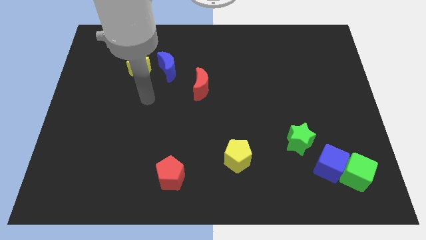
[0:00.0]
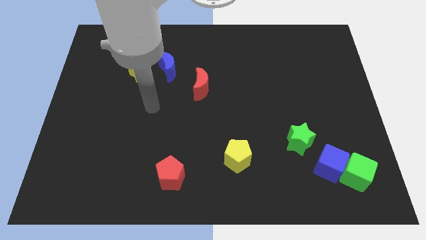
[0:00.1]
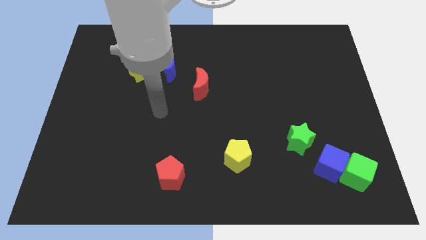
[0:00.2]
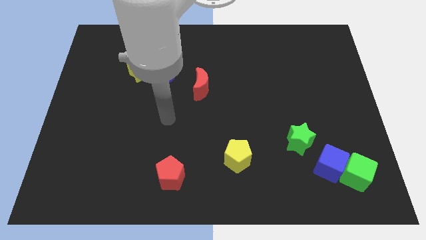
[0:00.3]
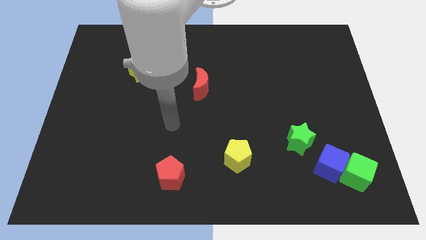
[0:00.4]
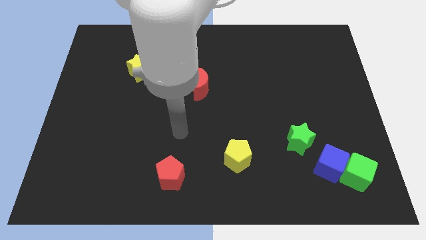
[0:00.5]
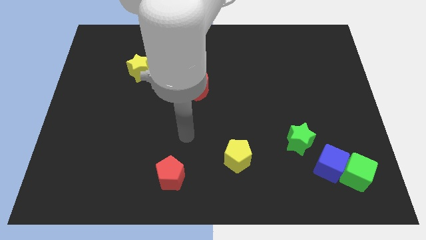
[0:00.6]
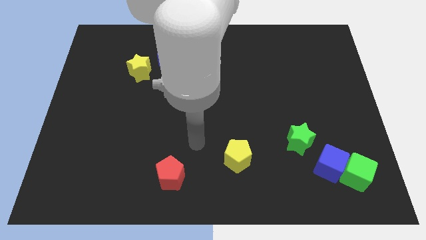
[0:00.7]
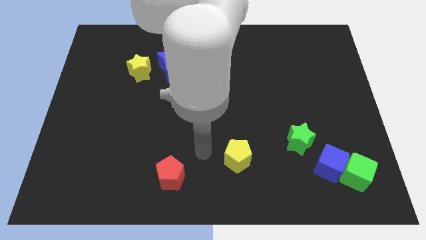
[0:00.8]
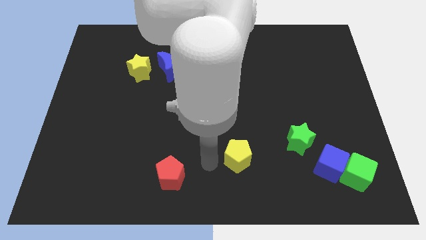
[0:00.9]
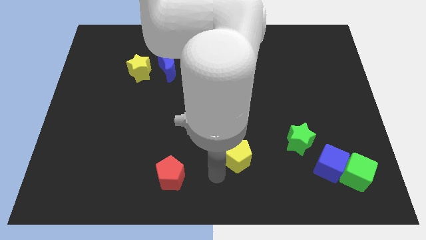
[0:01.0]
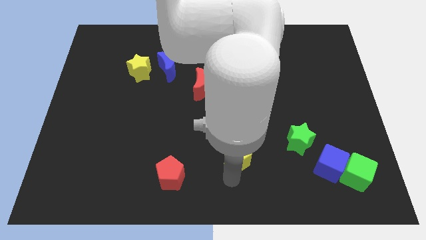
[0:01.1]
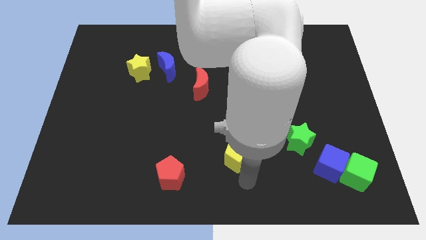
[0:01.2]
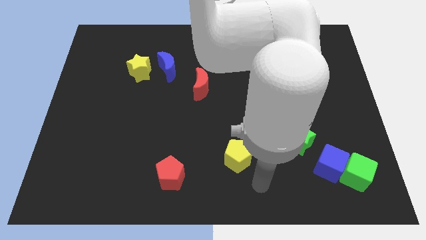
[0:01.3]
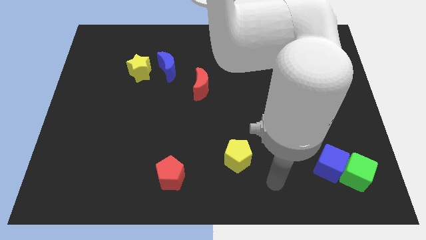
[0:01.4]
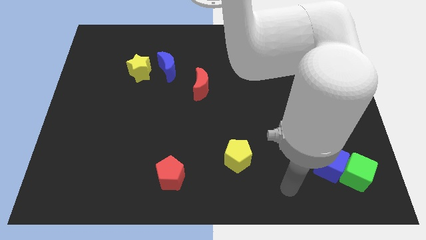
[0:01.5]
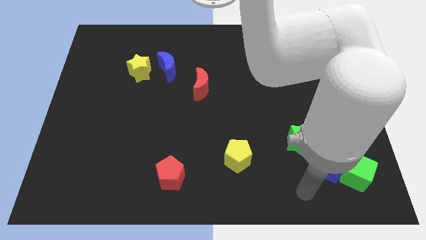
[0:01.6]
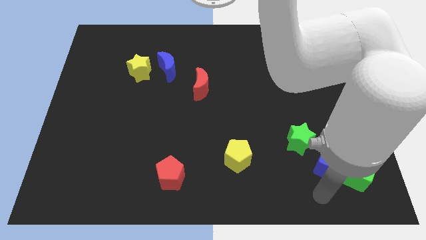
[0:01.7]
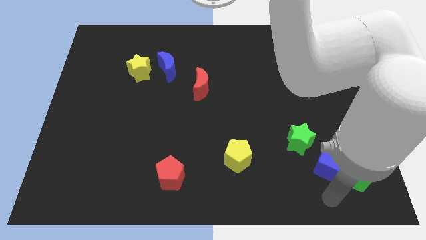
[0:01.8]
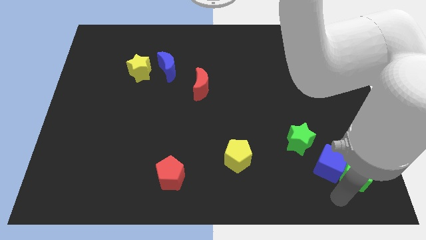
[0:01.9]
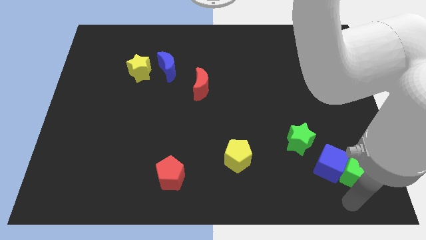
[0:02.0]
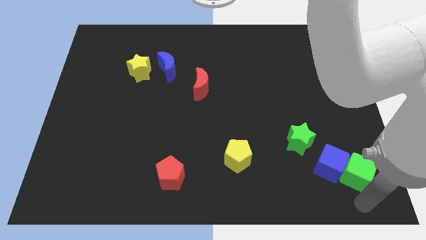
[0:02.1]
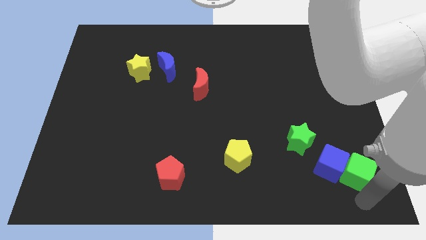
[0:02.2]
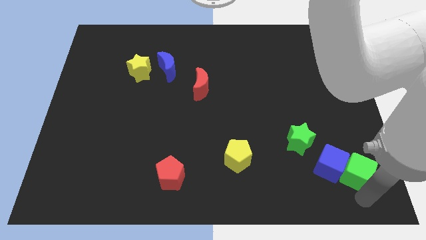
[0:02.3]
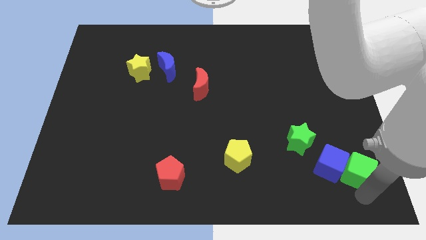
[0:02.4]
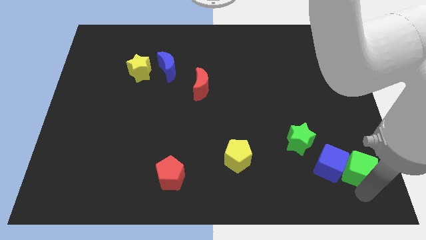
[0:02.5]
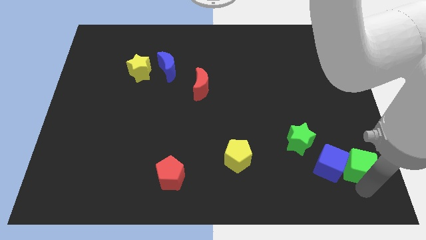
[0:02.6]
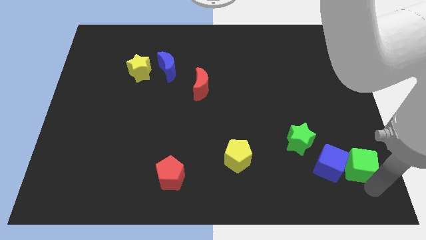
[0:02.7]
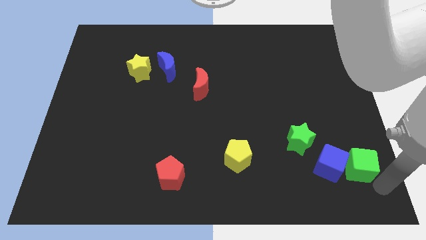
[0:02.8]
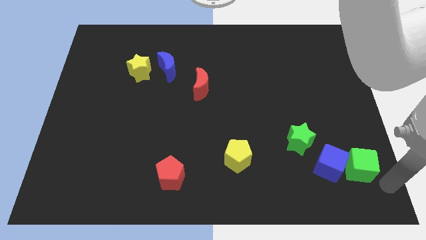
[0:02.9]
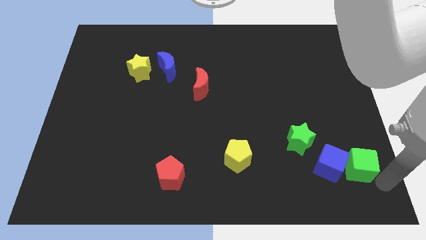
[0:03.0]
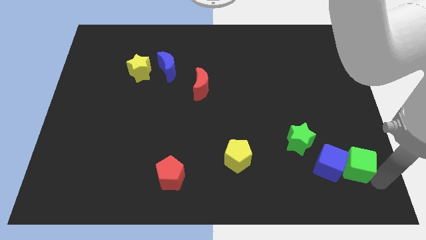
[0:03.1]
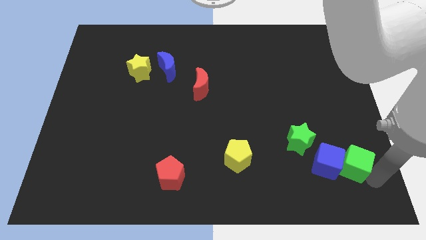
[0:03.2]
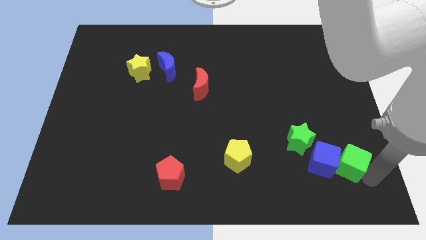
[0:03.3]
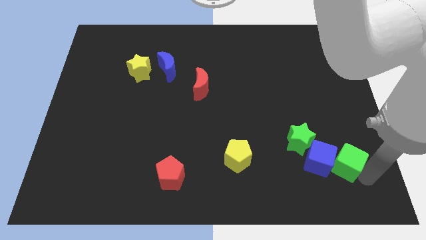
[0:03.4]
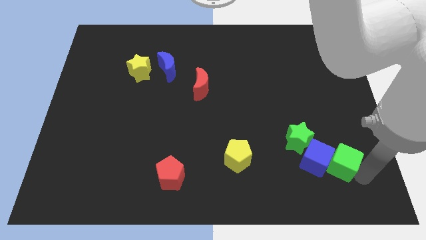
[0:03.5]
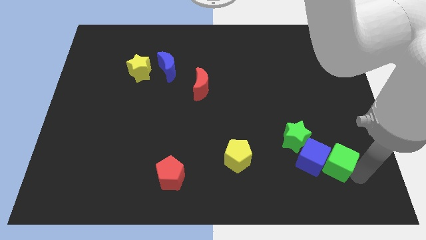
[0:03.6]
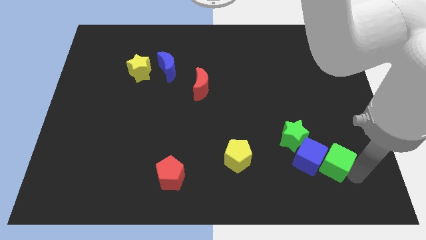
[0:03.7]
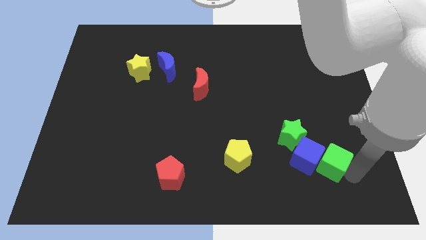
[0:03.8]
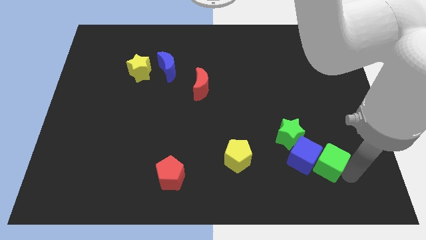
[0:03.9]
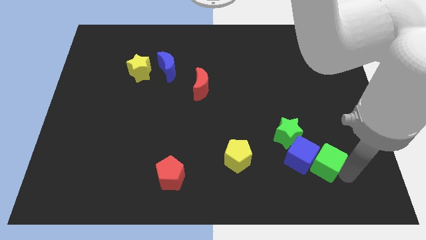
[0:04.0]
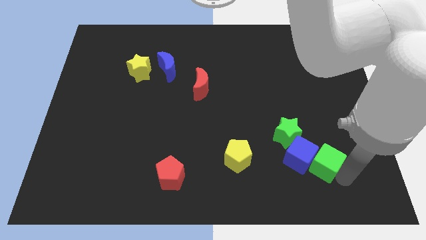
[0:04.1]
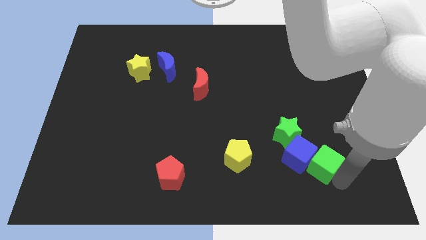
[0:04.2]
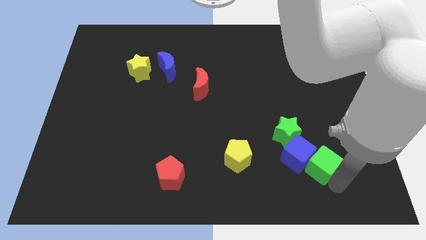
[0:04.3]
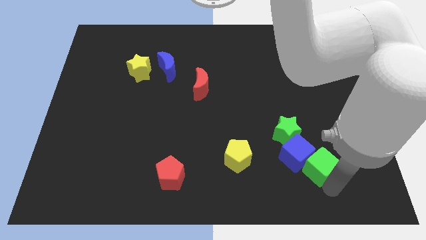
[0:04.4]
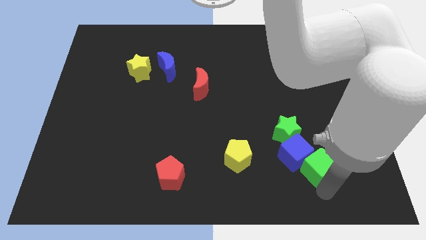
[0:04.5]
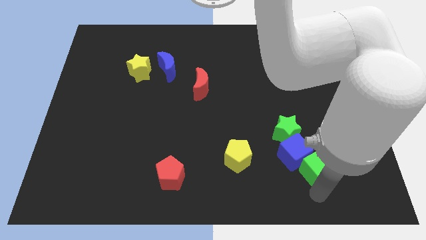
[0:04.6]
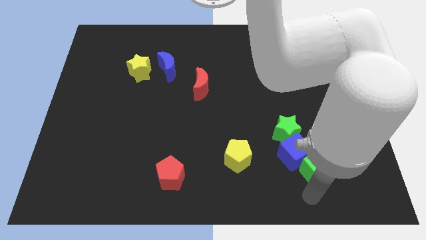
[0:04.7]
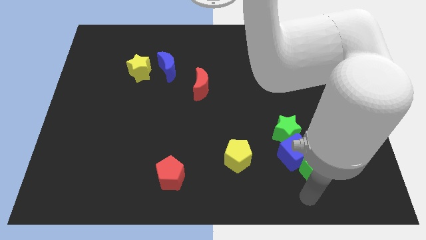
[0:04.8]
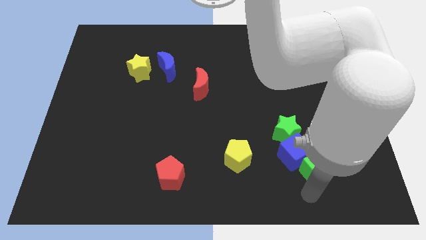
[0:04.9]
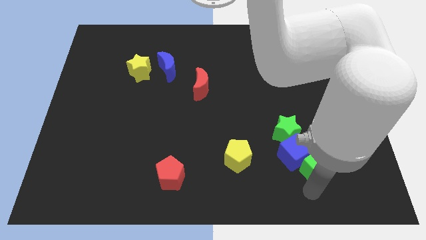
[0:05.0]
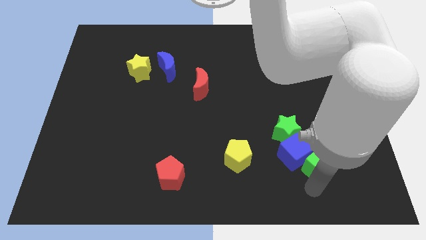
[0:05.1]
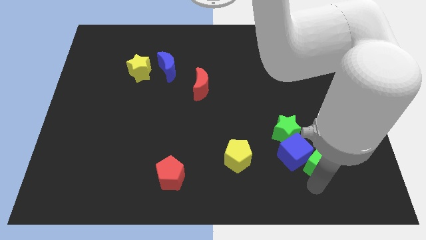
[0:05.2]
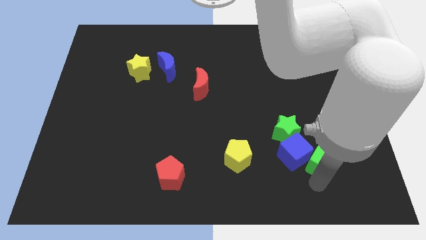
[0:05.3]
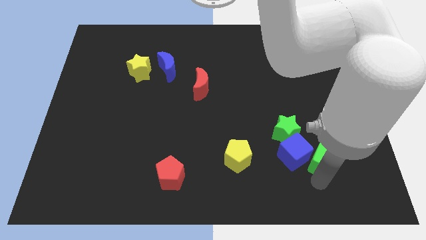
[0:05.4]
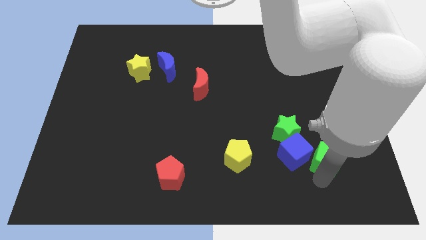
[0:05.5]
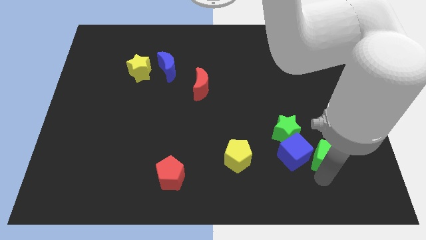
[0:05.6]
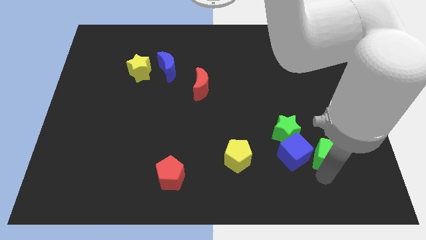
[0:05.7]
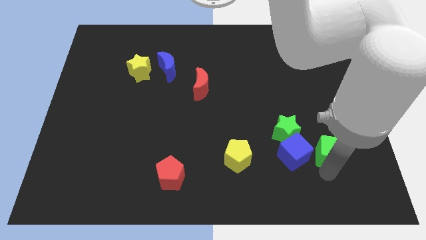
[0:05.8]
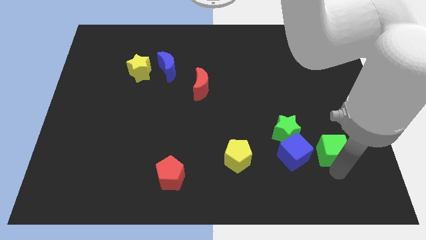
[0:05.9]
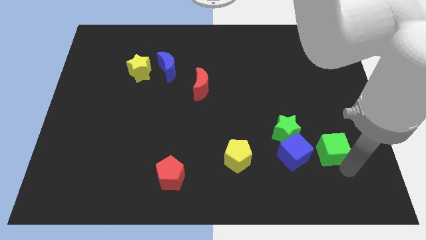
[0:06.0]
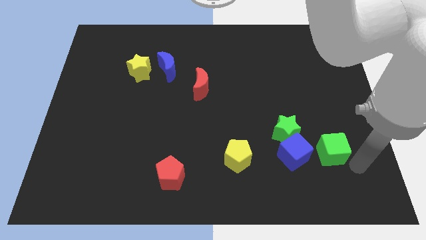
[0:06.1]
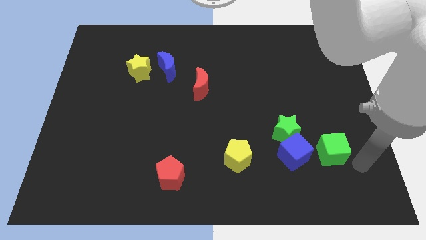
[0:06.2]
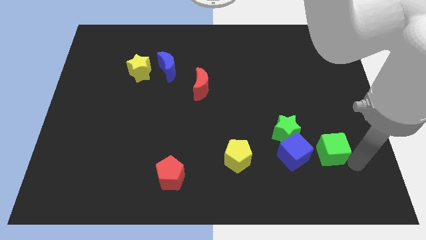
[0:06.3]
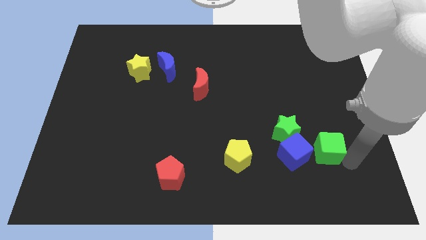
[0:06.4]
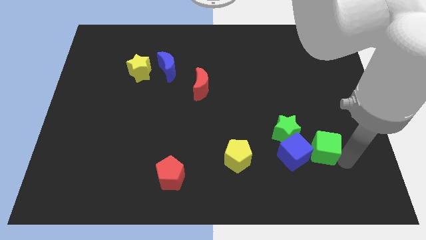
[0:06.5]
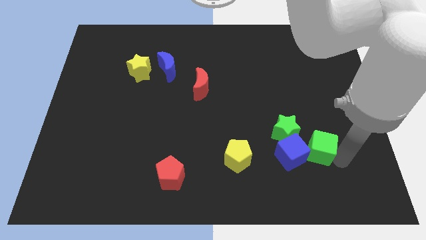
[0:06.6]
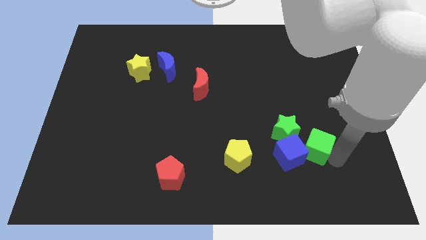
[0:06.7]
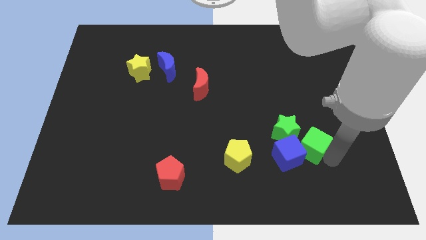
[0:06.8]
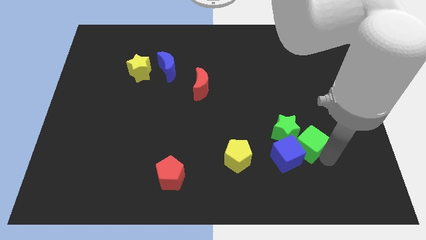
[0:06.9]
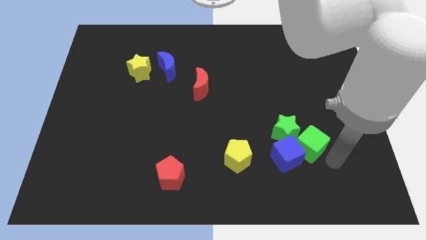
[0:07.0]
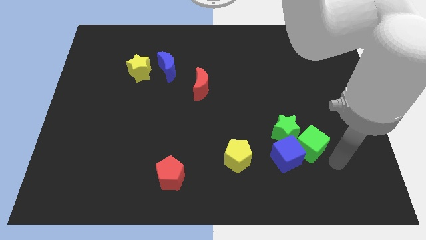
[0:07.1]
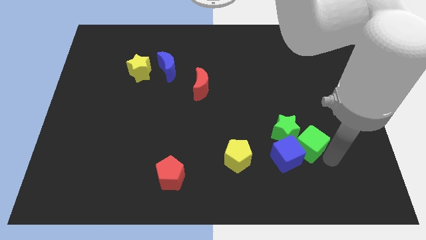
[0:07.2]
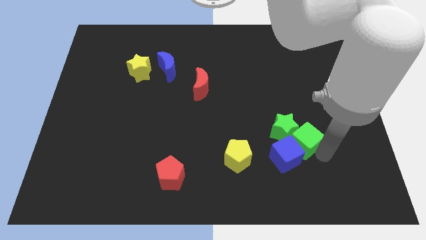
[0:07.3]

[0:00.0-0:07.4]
put the green cube next to the green star

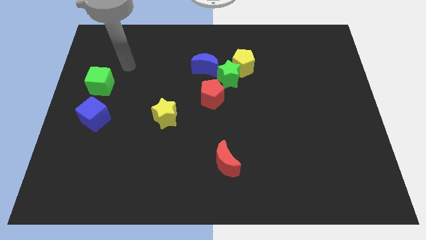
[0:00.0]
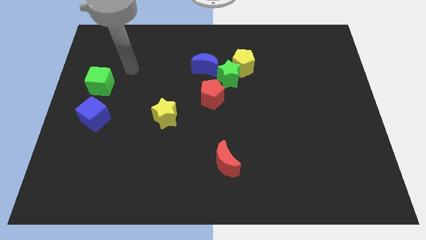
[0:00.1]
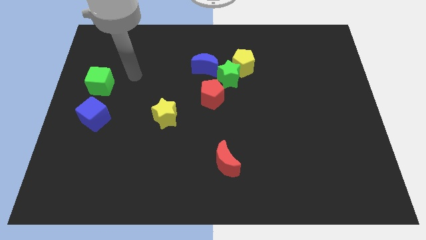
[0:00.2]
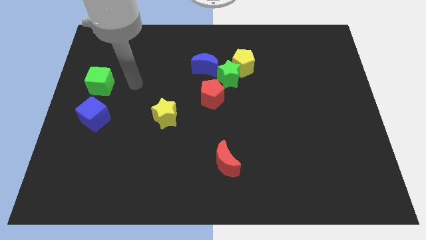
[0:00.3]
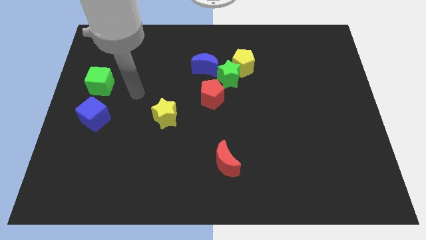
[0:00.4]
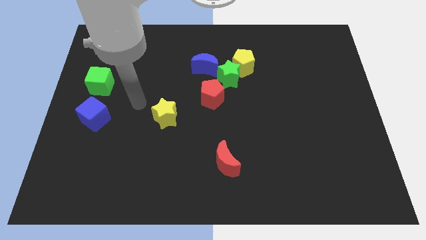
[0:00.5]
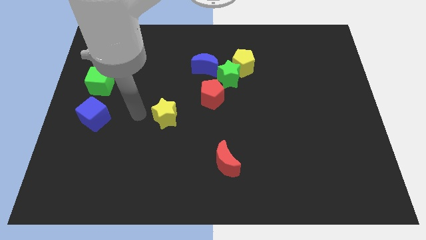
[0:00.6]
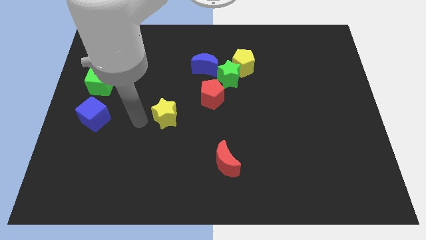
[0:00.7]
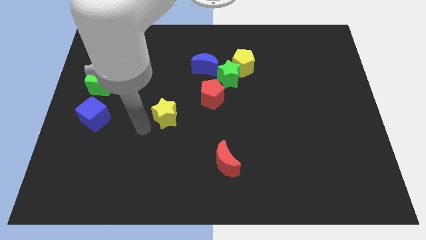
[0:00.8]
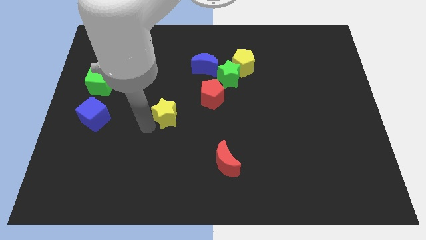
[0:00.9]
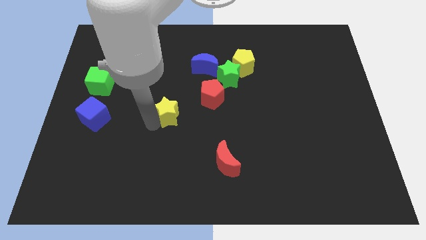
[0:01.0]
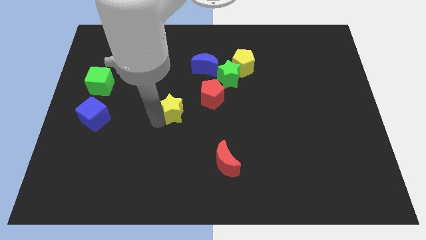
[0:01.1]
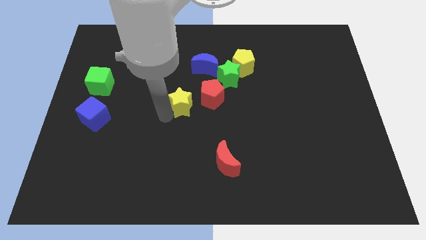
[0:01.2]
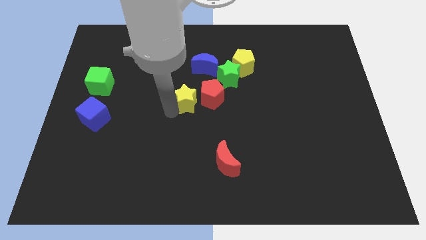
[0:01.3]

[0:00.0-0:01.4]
move the yellow star close to the red pentagon
